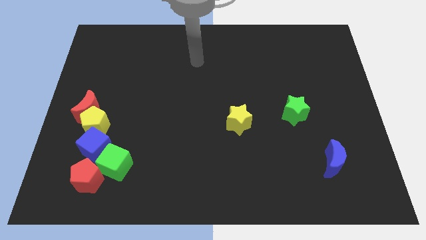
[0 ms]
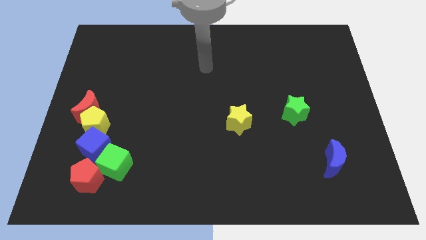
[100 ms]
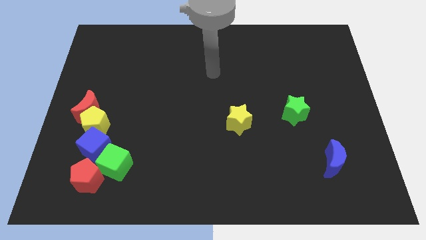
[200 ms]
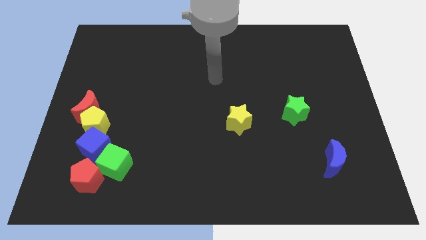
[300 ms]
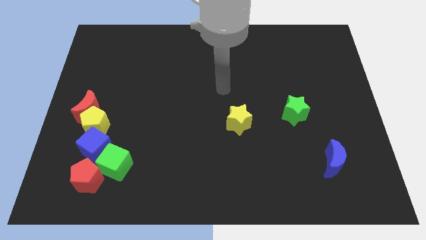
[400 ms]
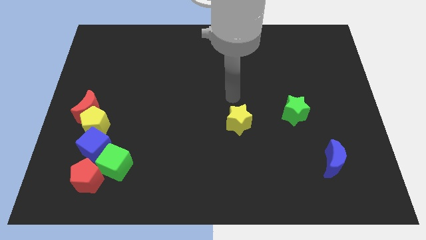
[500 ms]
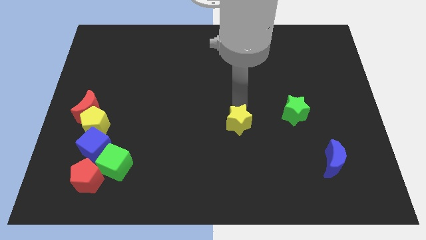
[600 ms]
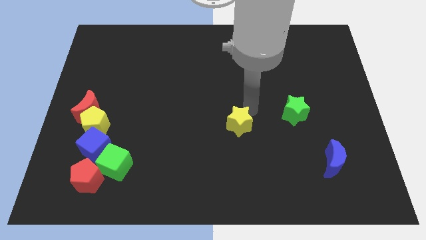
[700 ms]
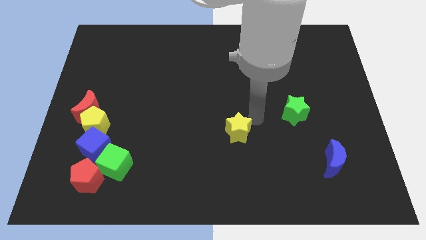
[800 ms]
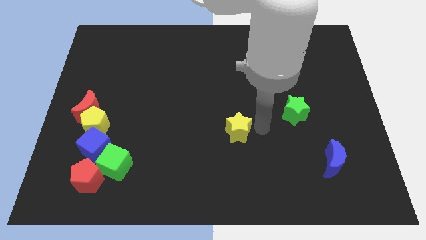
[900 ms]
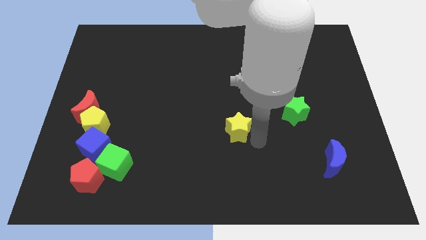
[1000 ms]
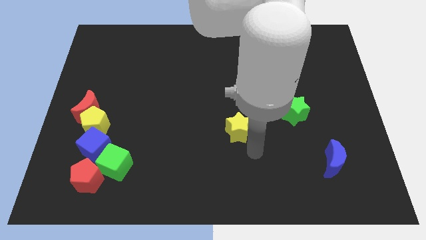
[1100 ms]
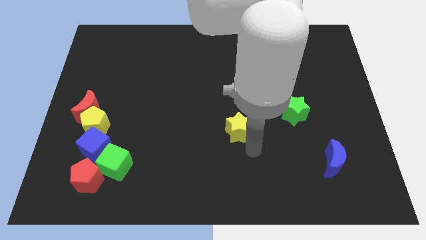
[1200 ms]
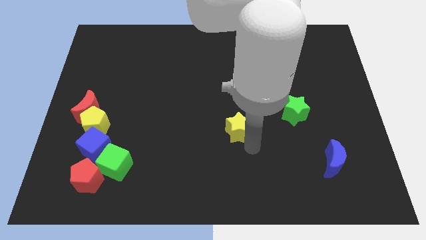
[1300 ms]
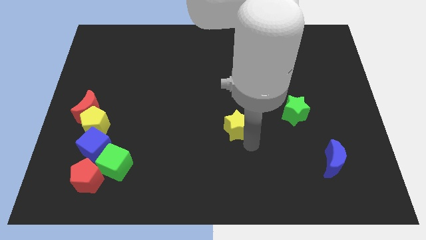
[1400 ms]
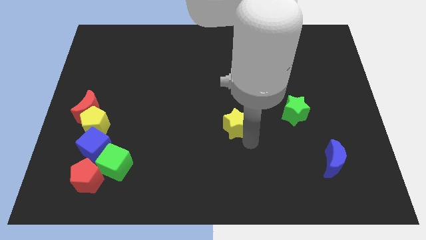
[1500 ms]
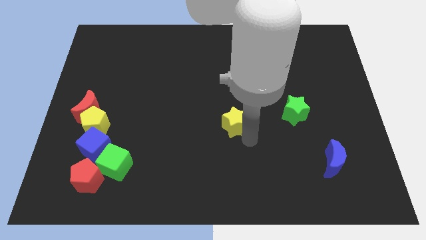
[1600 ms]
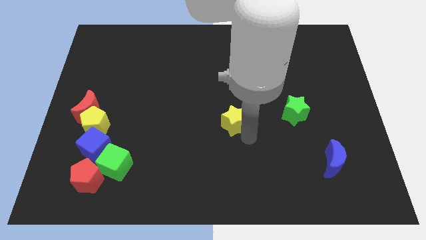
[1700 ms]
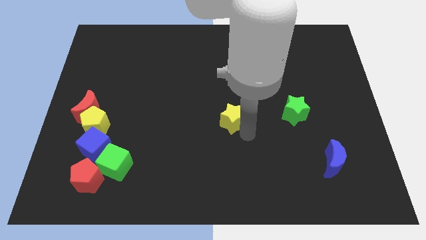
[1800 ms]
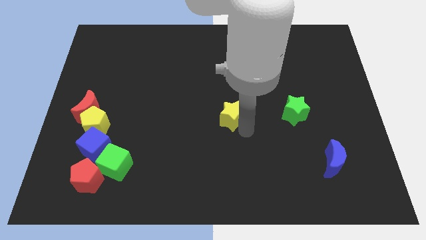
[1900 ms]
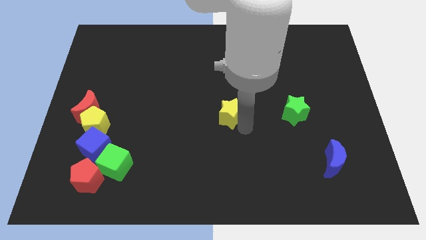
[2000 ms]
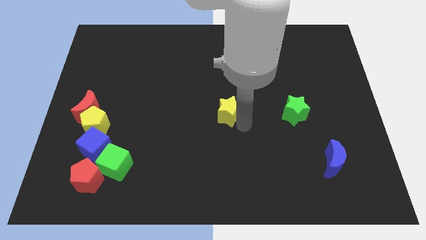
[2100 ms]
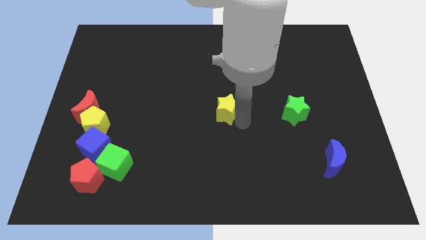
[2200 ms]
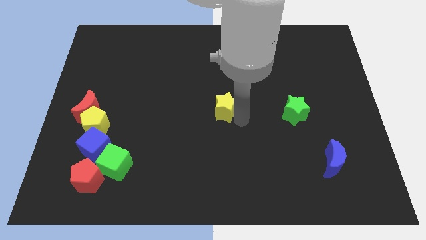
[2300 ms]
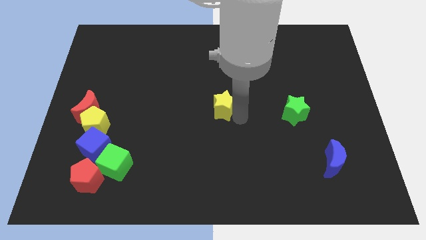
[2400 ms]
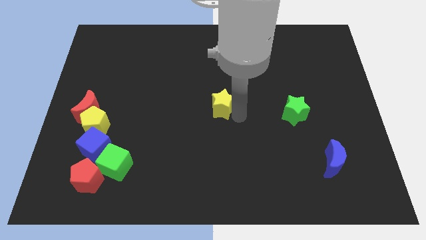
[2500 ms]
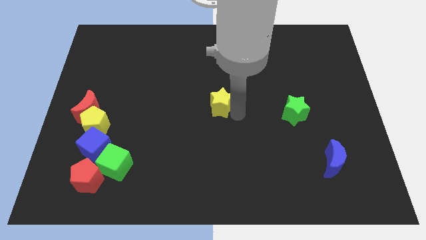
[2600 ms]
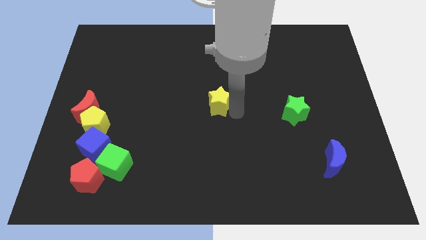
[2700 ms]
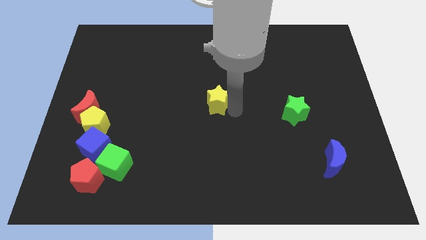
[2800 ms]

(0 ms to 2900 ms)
slightly slide the yellow star up and left

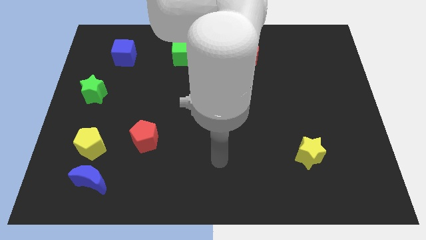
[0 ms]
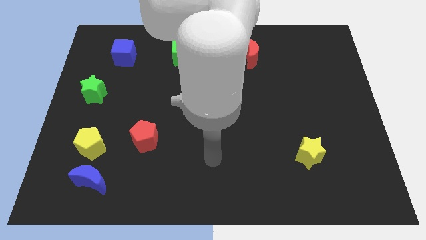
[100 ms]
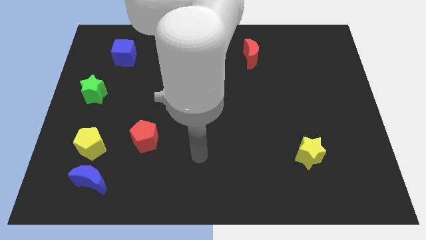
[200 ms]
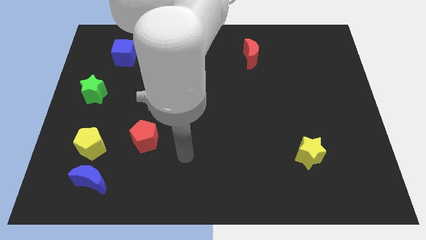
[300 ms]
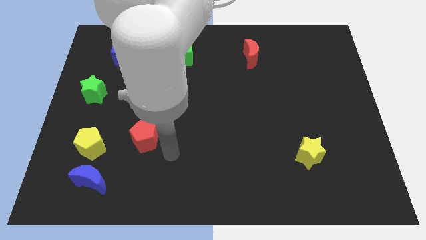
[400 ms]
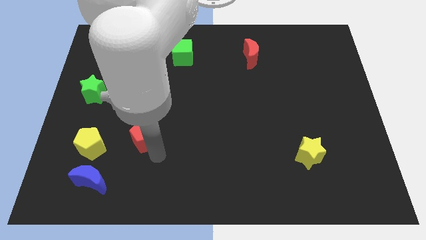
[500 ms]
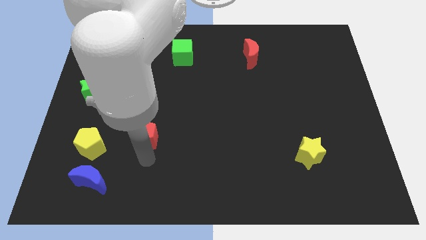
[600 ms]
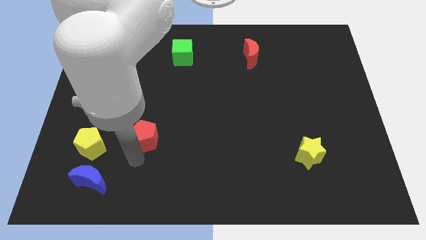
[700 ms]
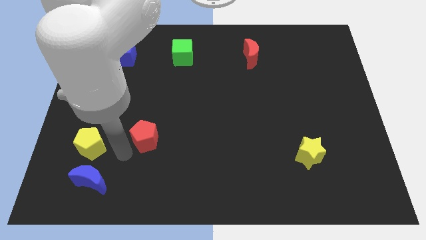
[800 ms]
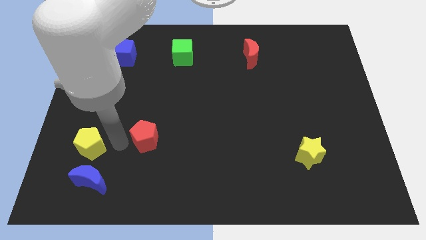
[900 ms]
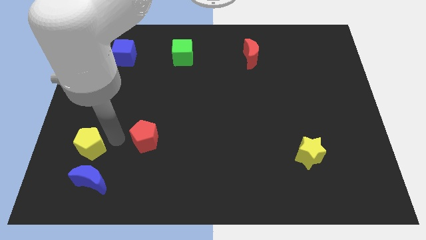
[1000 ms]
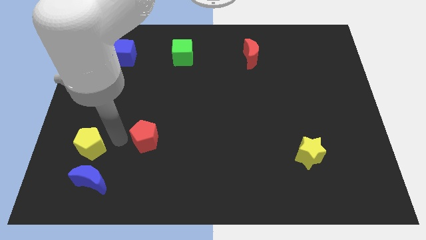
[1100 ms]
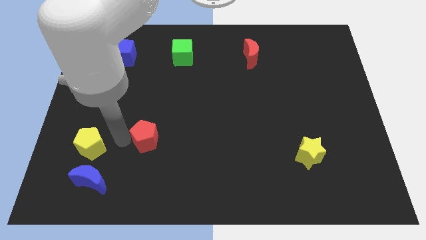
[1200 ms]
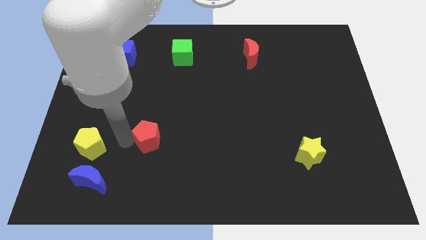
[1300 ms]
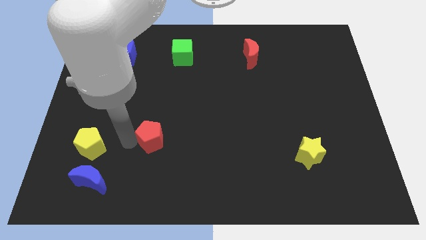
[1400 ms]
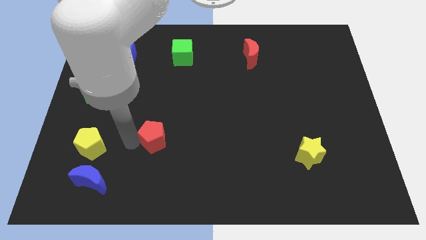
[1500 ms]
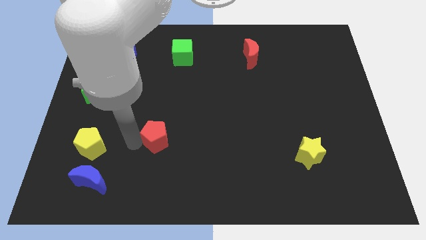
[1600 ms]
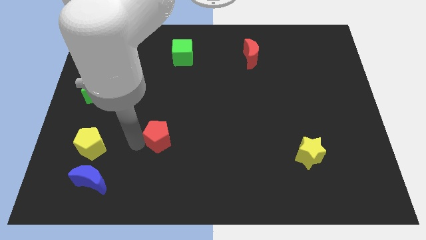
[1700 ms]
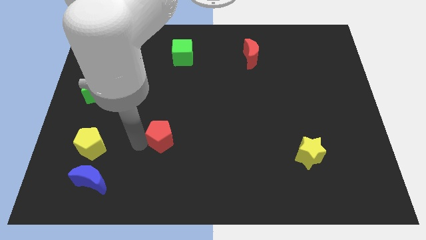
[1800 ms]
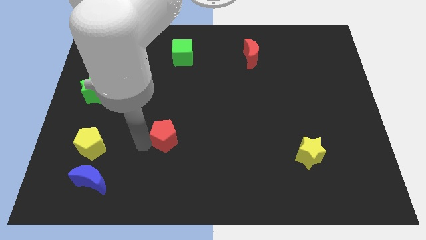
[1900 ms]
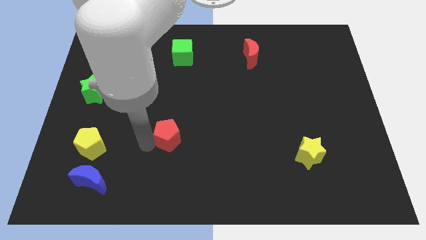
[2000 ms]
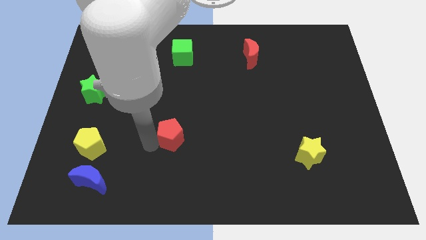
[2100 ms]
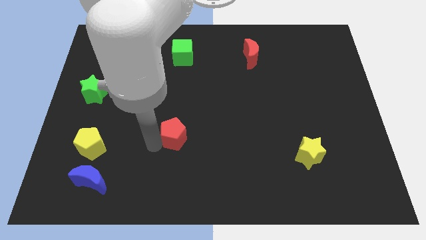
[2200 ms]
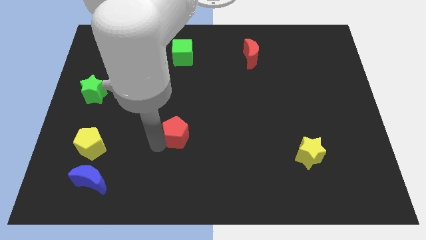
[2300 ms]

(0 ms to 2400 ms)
slightly push the red pentagon to the right

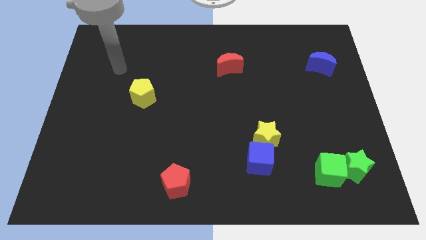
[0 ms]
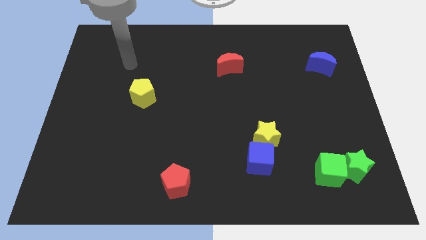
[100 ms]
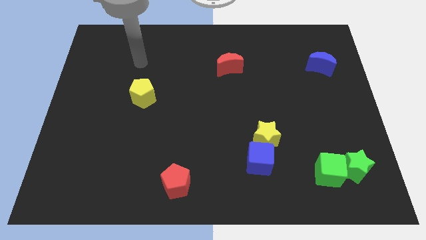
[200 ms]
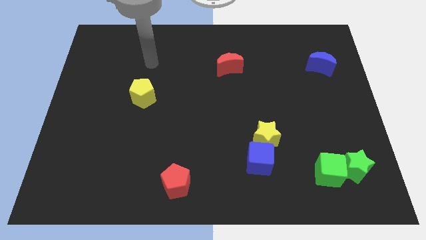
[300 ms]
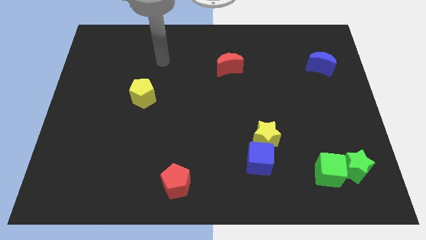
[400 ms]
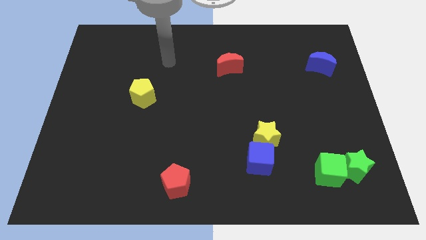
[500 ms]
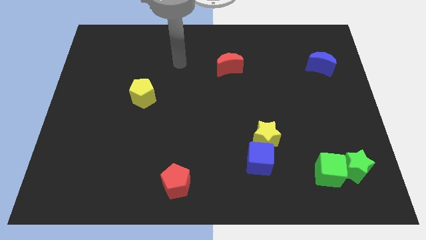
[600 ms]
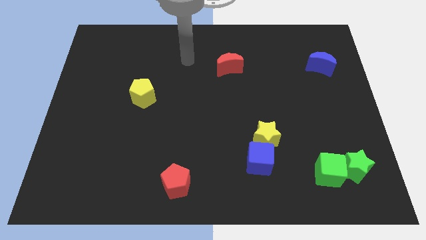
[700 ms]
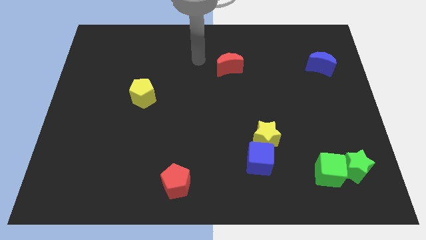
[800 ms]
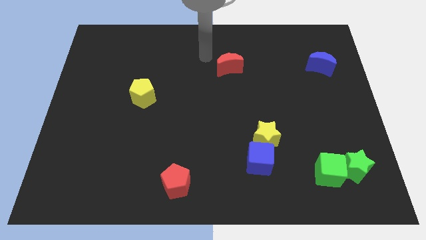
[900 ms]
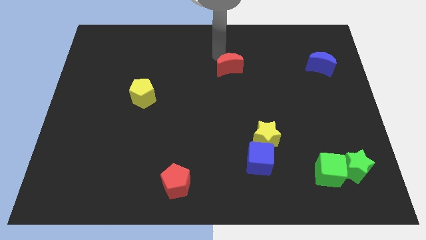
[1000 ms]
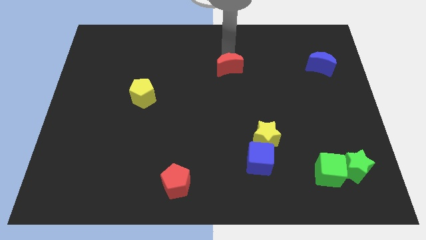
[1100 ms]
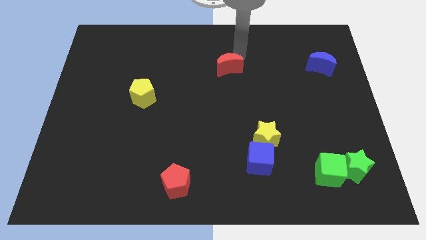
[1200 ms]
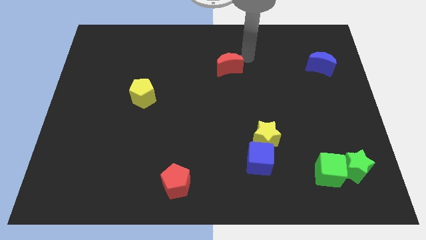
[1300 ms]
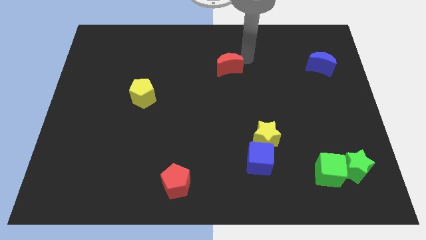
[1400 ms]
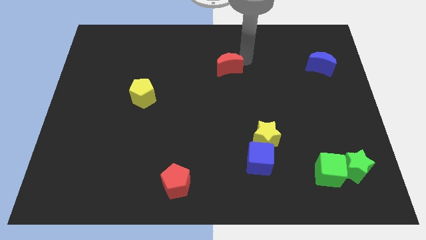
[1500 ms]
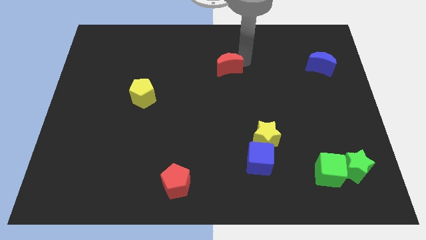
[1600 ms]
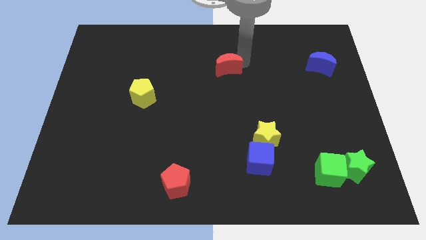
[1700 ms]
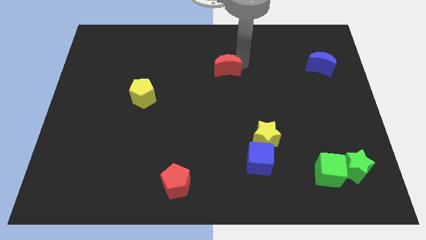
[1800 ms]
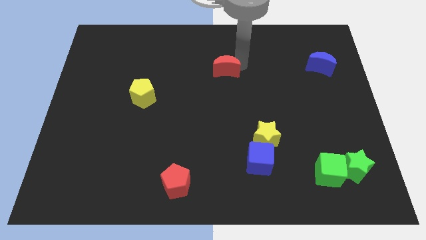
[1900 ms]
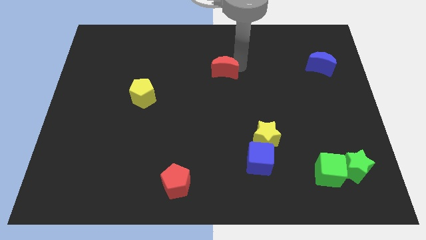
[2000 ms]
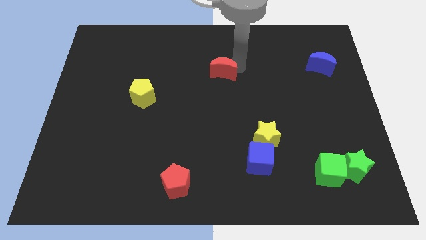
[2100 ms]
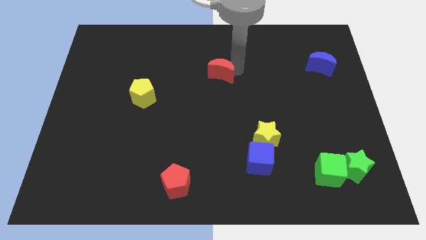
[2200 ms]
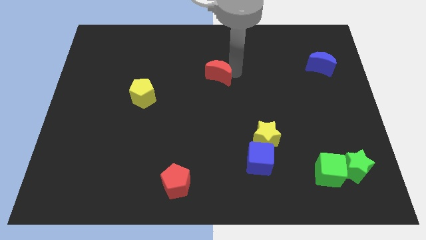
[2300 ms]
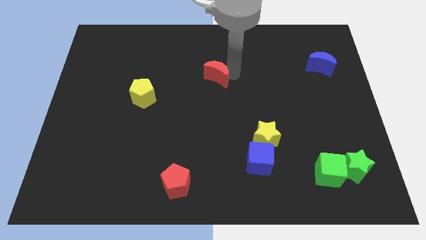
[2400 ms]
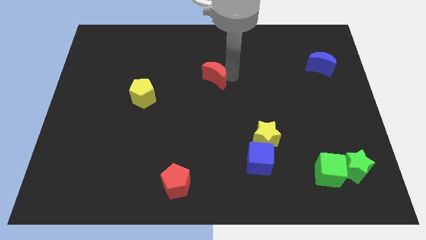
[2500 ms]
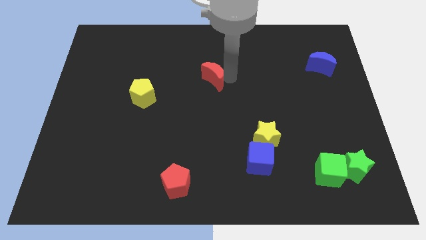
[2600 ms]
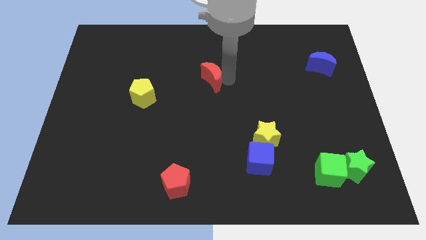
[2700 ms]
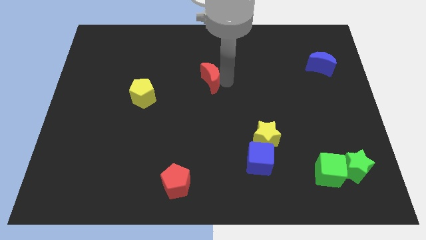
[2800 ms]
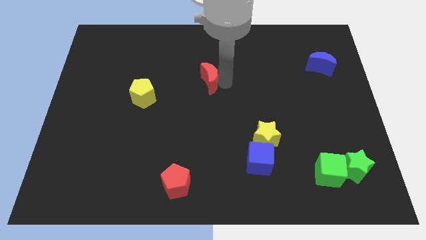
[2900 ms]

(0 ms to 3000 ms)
slightly slide the red moon down and then to the left
